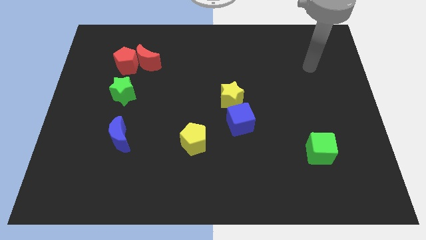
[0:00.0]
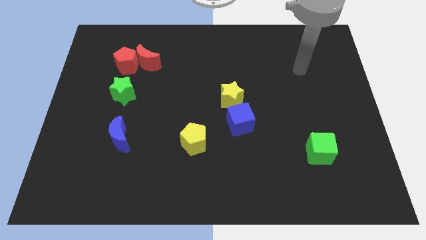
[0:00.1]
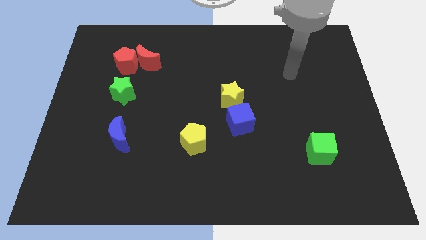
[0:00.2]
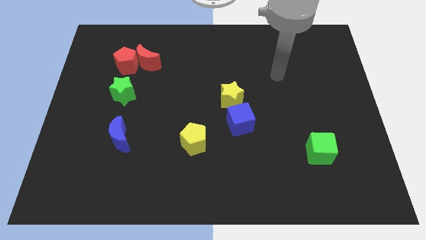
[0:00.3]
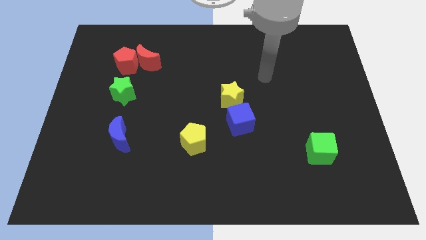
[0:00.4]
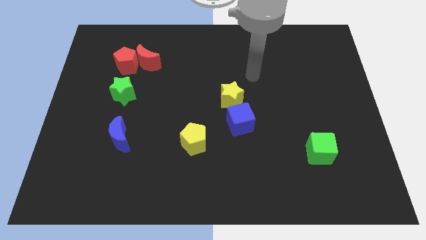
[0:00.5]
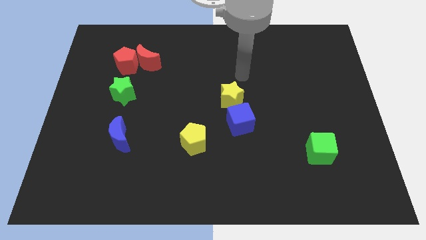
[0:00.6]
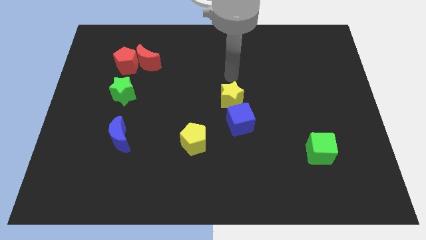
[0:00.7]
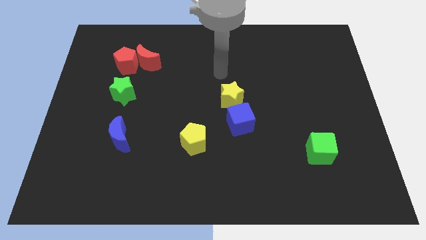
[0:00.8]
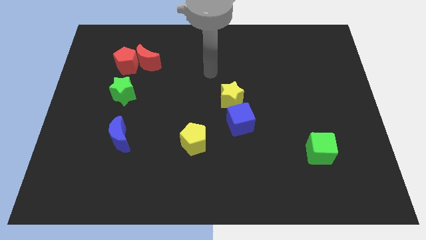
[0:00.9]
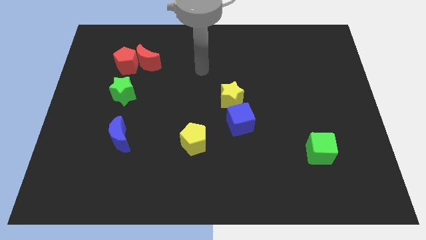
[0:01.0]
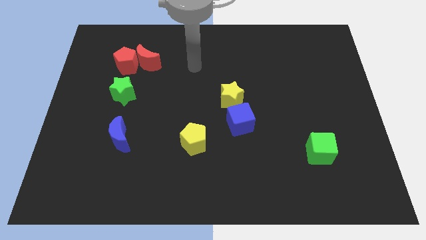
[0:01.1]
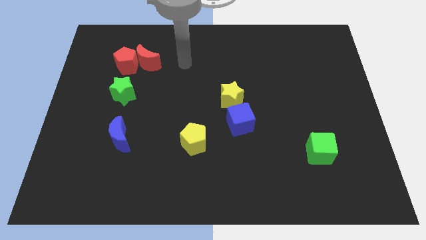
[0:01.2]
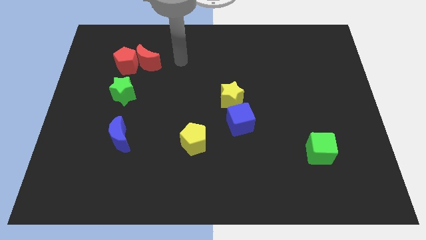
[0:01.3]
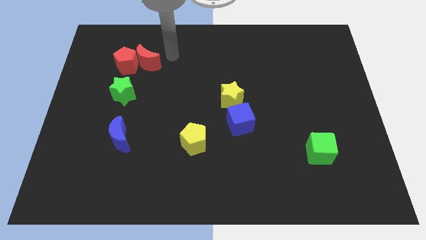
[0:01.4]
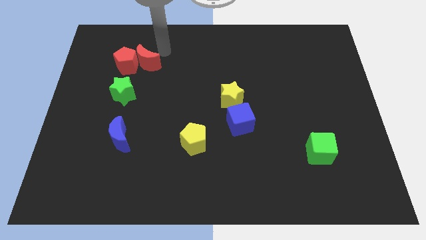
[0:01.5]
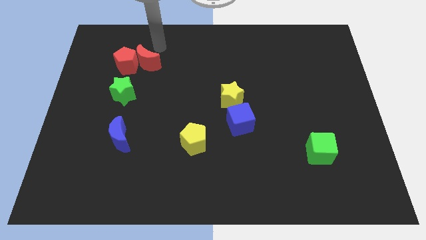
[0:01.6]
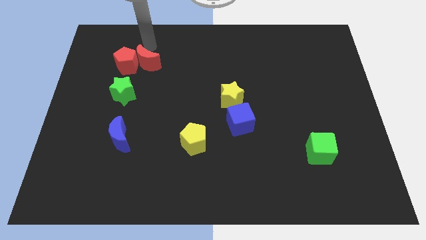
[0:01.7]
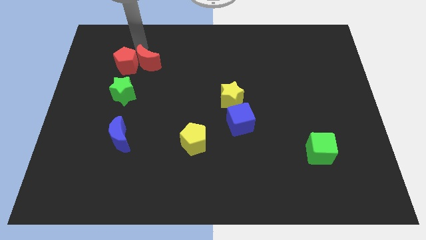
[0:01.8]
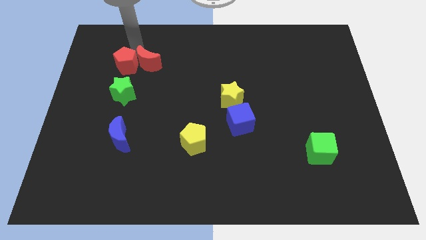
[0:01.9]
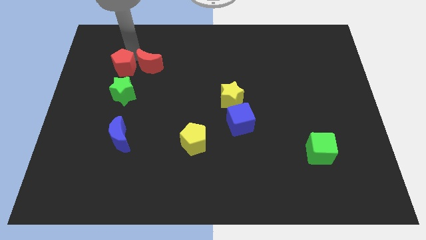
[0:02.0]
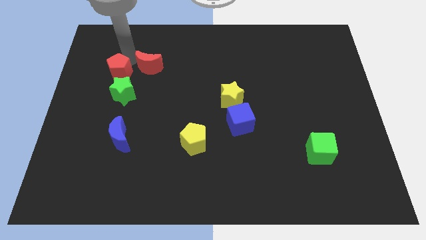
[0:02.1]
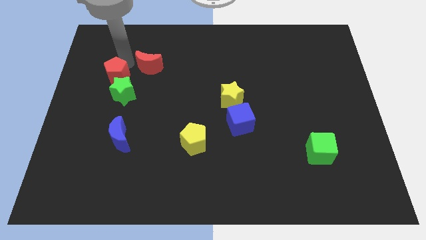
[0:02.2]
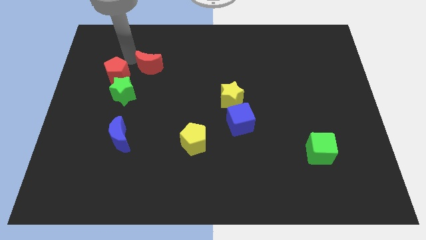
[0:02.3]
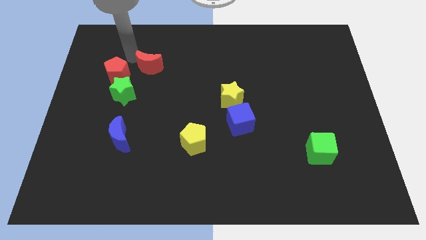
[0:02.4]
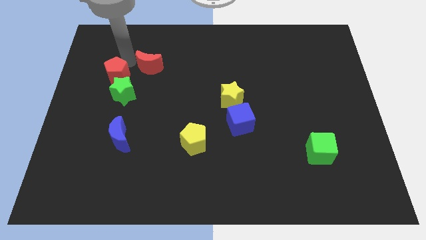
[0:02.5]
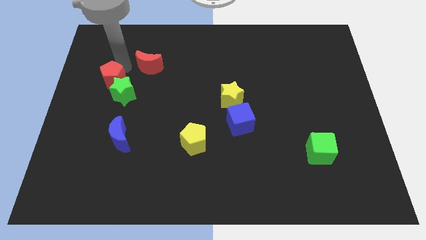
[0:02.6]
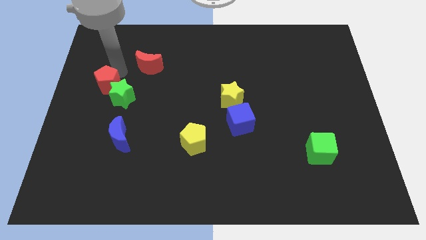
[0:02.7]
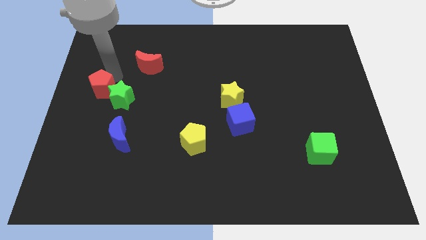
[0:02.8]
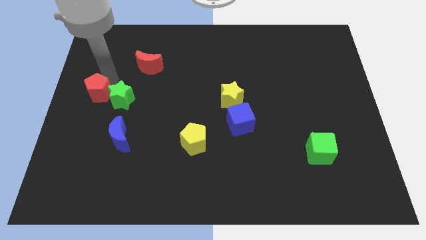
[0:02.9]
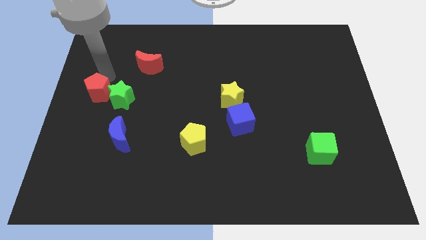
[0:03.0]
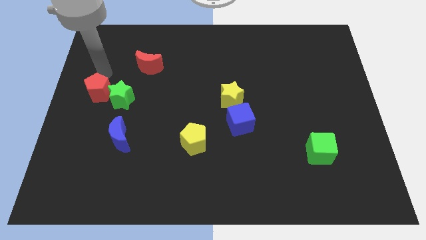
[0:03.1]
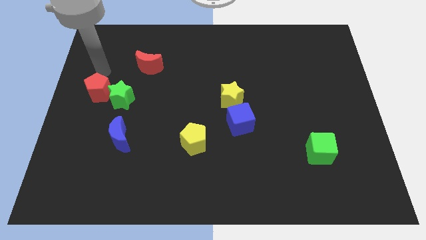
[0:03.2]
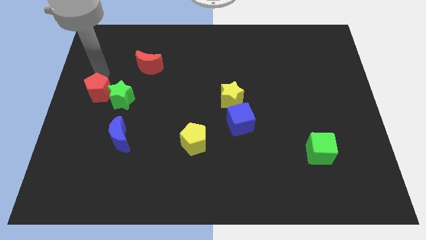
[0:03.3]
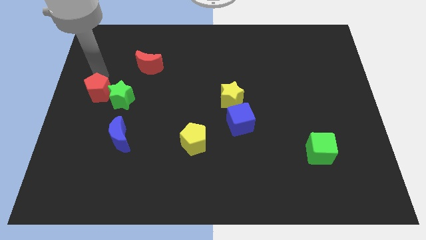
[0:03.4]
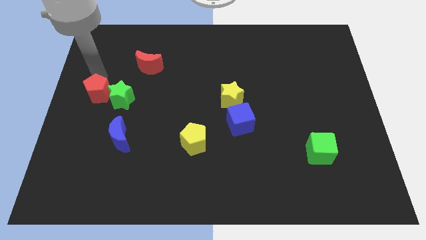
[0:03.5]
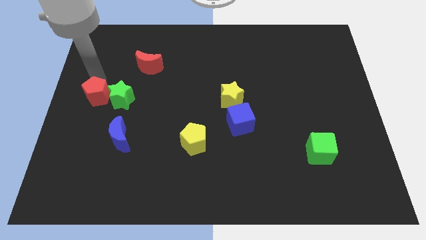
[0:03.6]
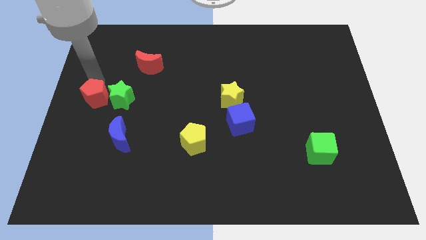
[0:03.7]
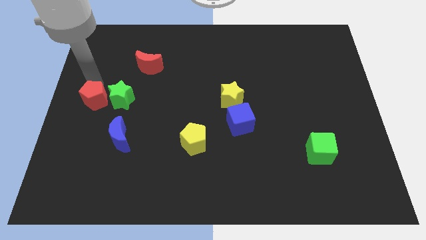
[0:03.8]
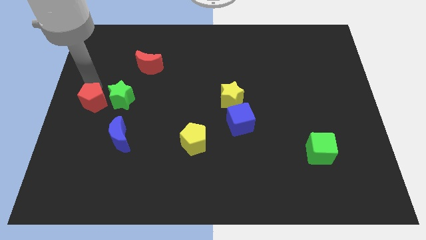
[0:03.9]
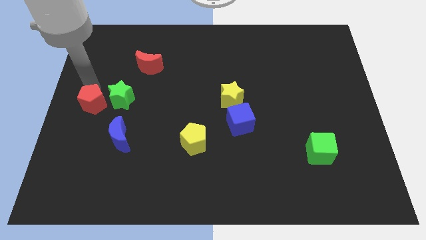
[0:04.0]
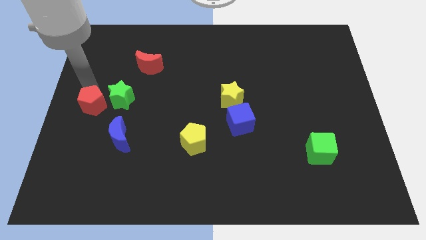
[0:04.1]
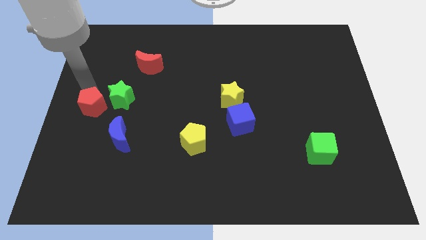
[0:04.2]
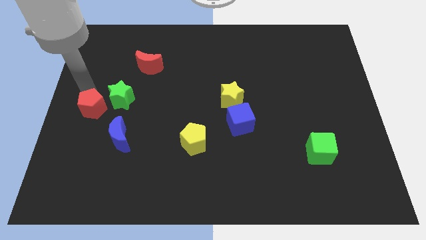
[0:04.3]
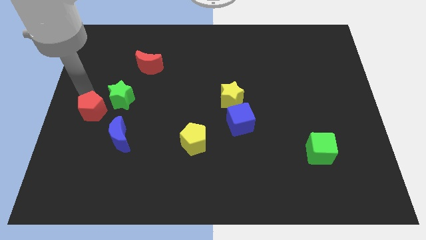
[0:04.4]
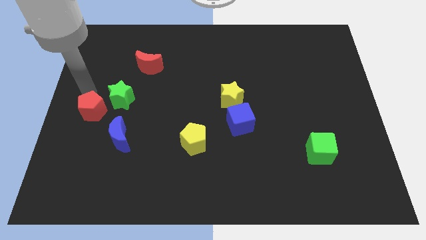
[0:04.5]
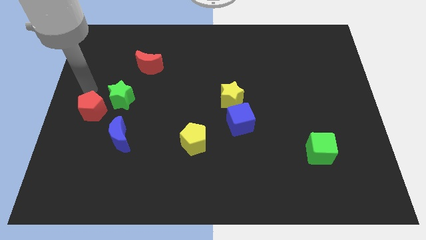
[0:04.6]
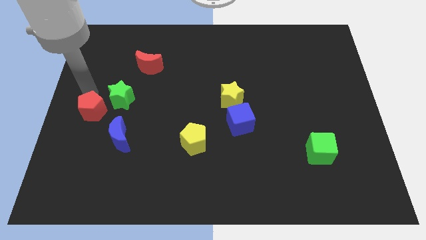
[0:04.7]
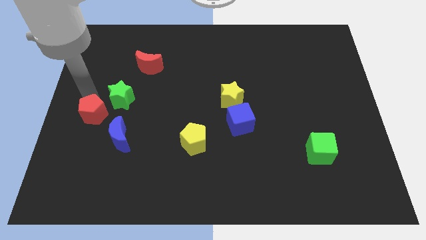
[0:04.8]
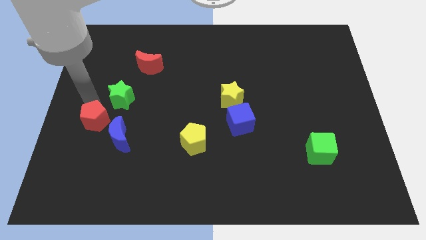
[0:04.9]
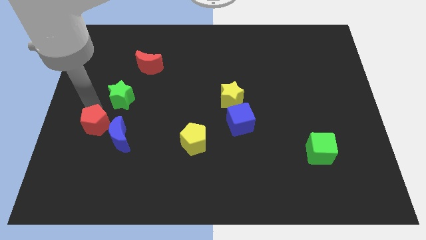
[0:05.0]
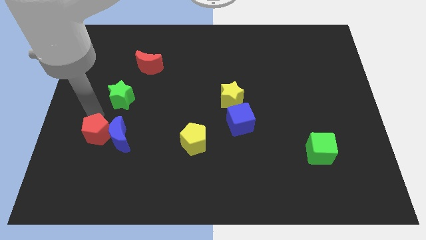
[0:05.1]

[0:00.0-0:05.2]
slide the red pentagon downwards

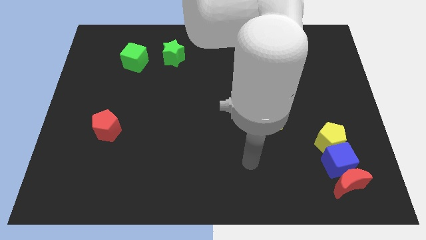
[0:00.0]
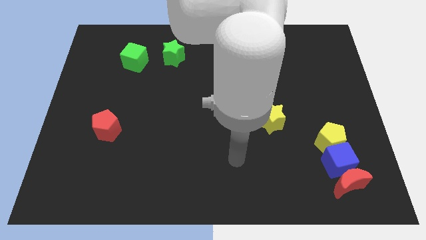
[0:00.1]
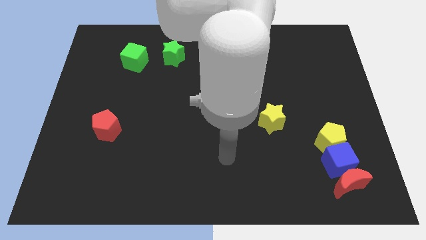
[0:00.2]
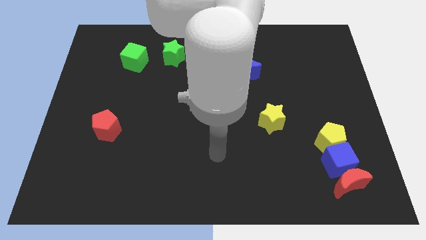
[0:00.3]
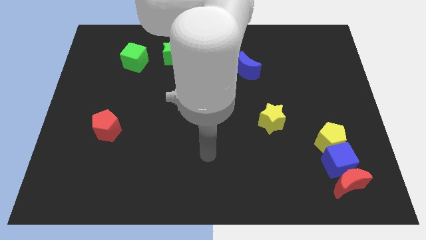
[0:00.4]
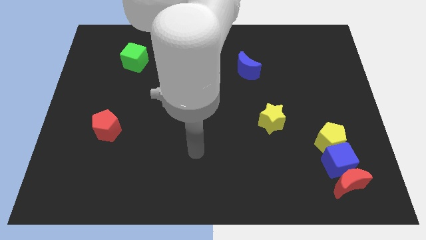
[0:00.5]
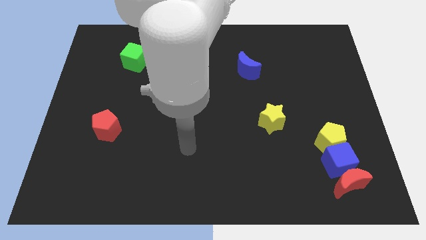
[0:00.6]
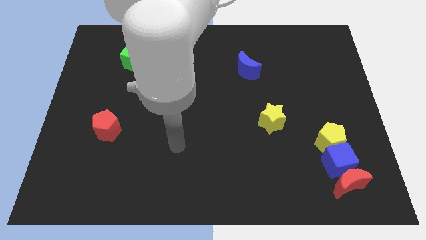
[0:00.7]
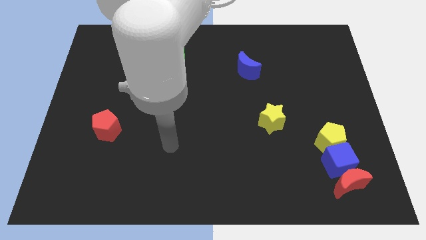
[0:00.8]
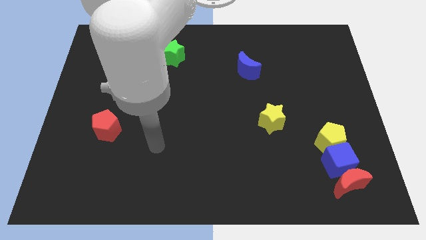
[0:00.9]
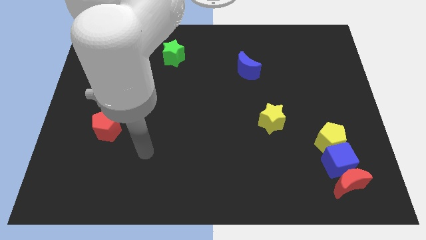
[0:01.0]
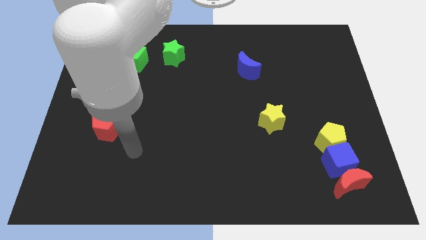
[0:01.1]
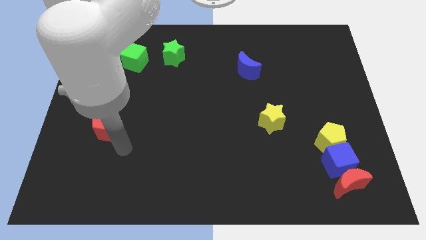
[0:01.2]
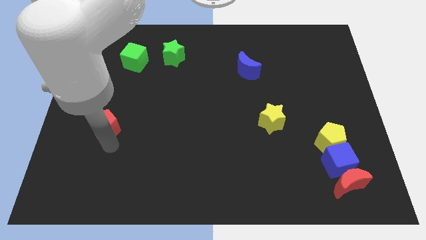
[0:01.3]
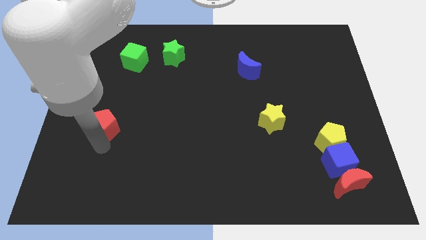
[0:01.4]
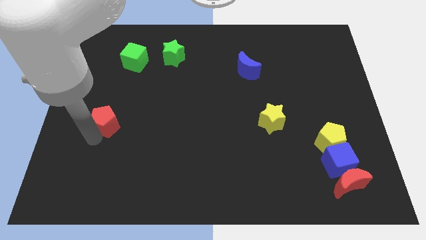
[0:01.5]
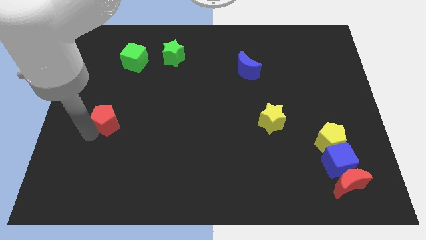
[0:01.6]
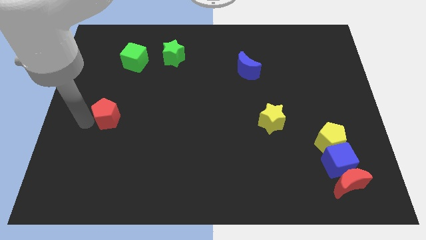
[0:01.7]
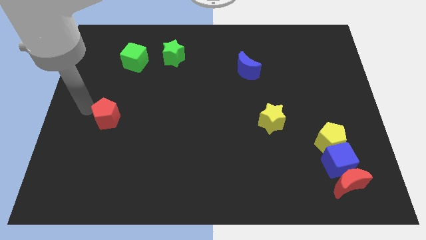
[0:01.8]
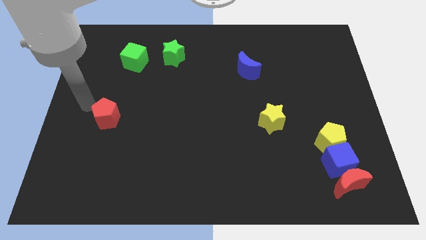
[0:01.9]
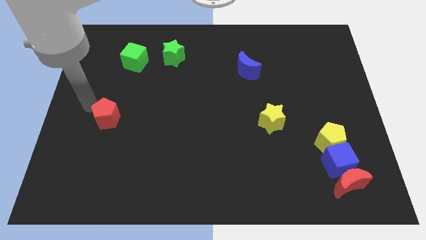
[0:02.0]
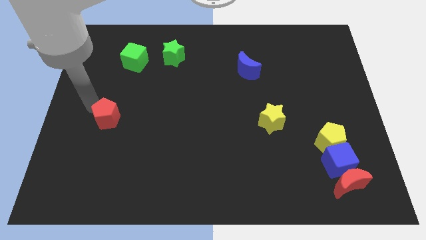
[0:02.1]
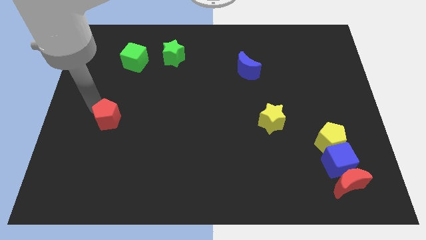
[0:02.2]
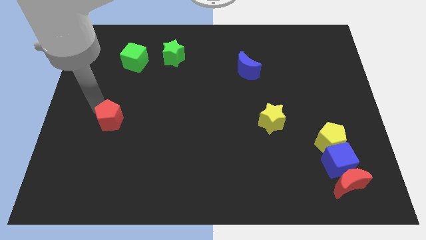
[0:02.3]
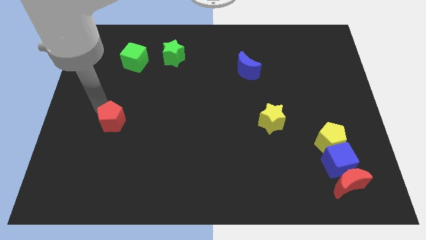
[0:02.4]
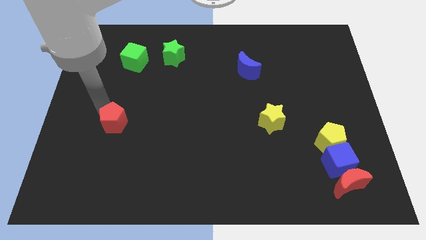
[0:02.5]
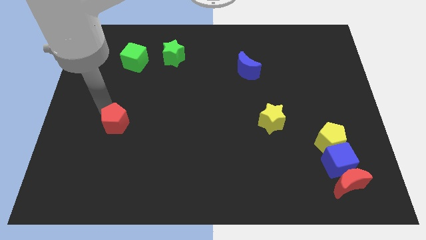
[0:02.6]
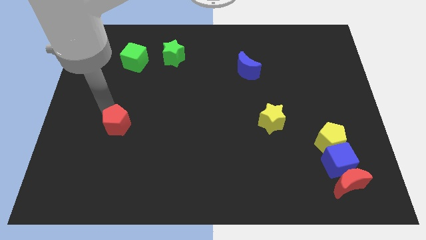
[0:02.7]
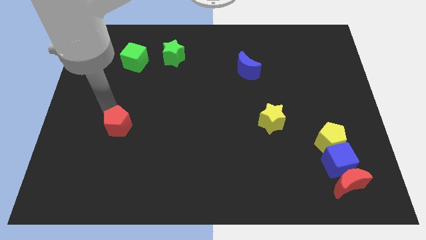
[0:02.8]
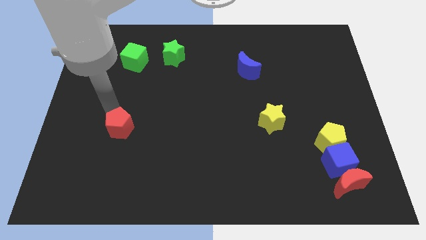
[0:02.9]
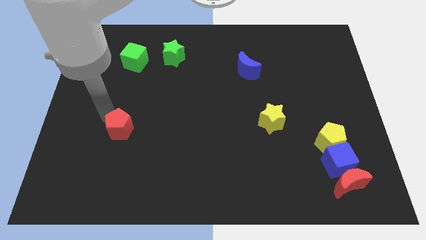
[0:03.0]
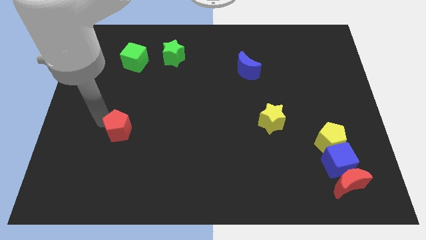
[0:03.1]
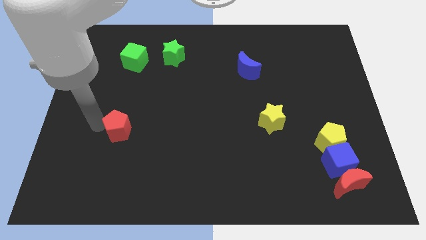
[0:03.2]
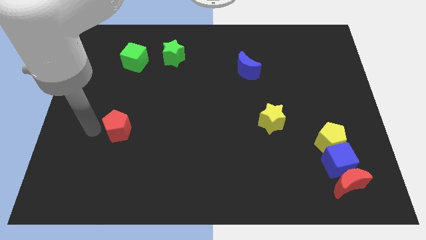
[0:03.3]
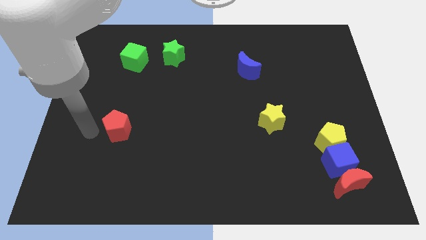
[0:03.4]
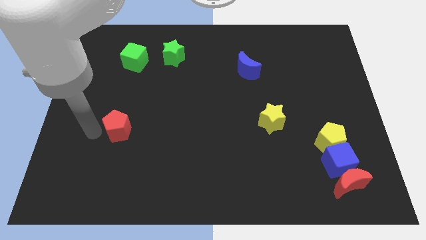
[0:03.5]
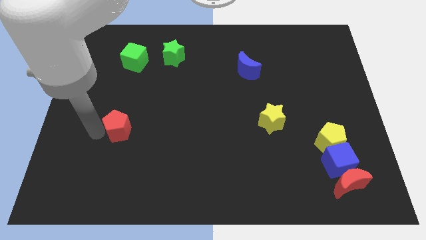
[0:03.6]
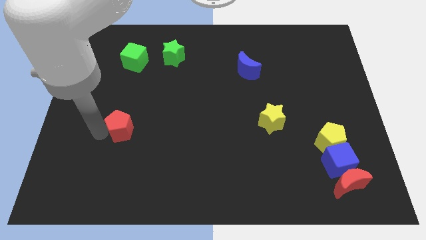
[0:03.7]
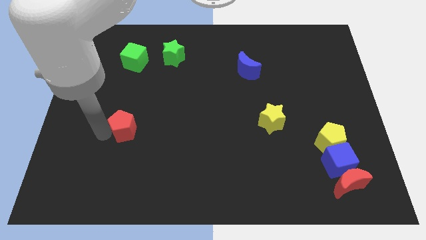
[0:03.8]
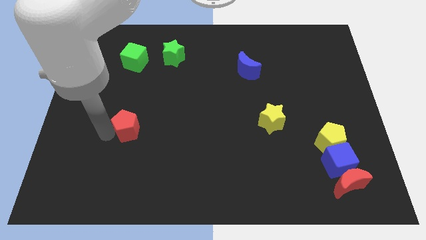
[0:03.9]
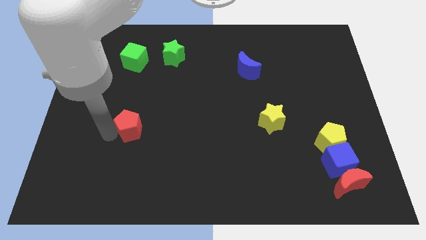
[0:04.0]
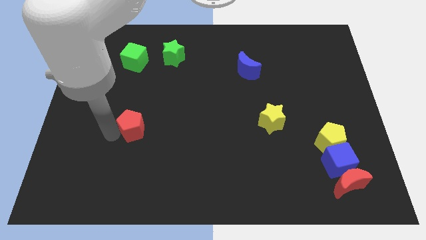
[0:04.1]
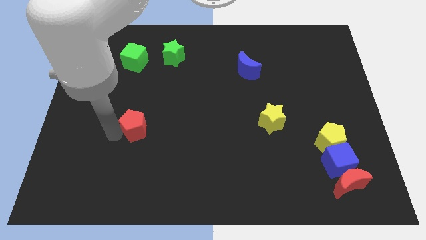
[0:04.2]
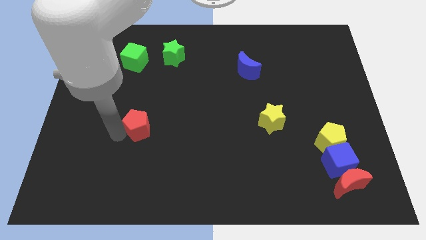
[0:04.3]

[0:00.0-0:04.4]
slide the red pentagon right a little
